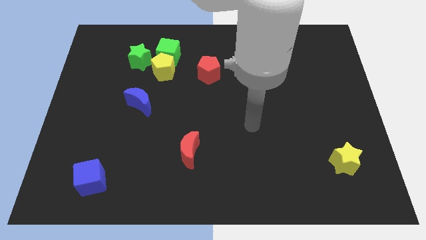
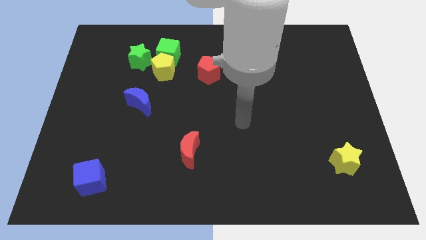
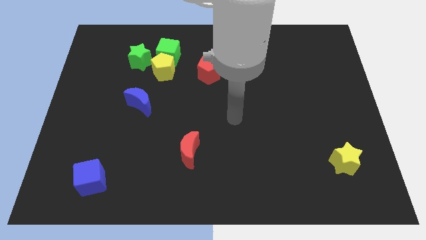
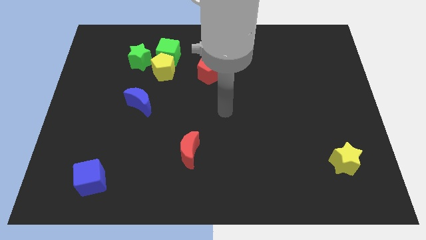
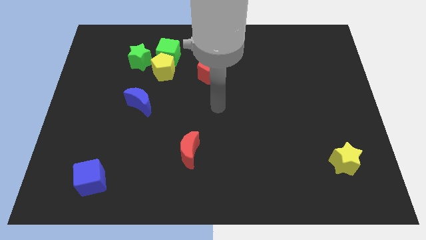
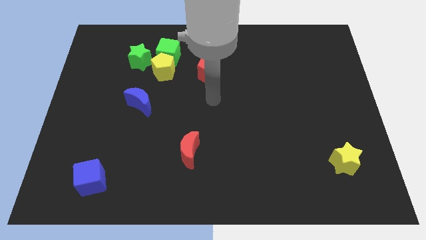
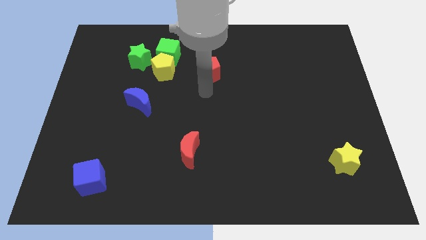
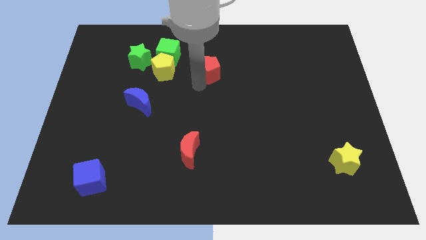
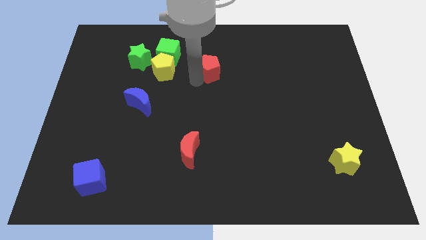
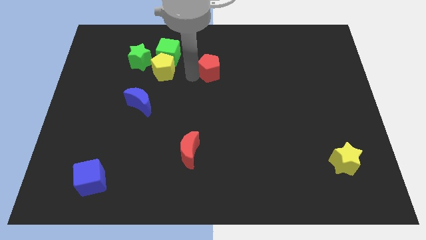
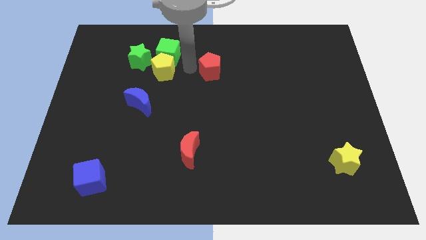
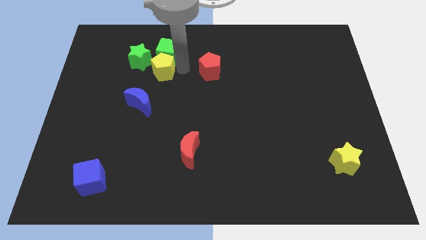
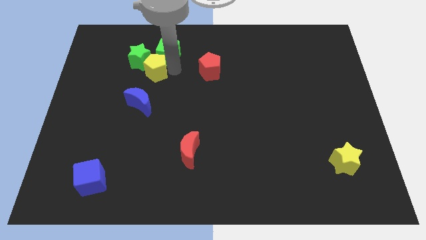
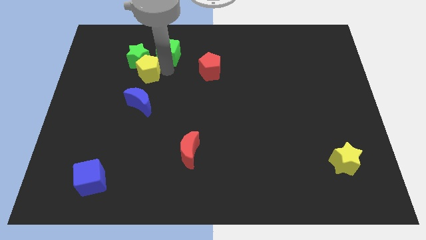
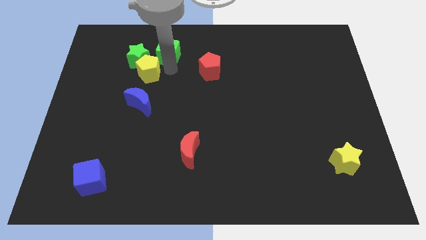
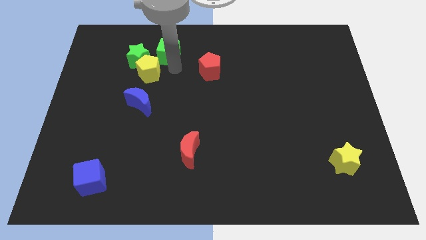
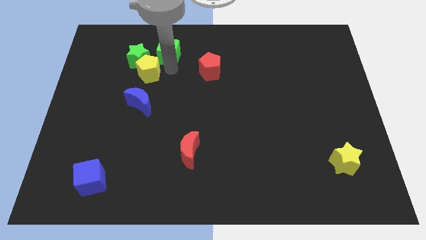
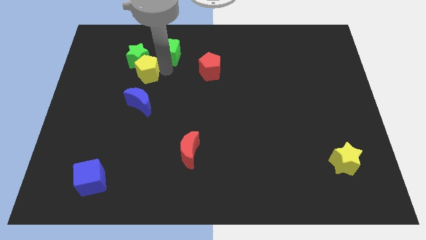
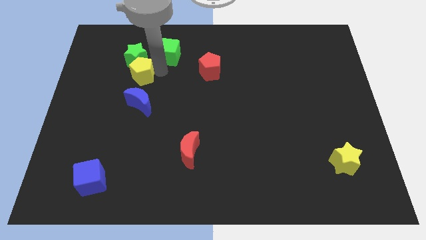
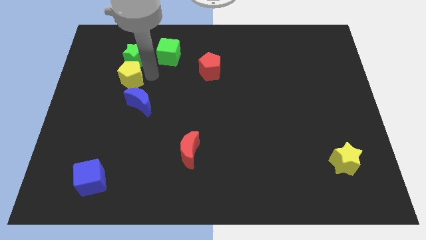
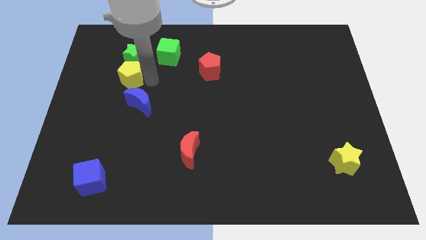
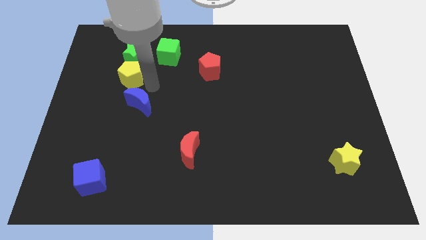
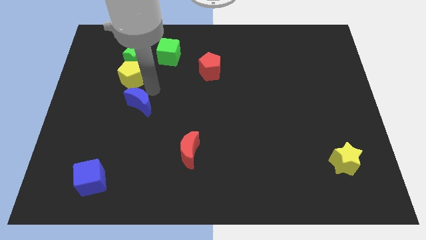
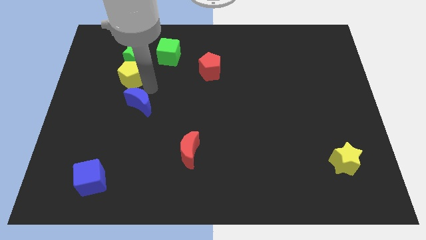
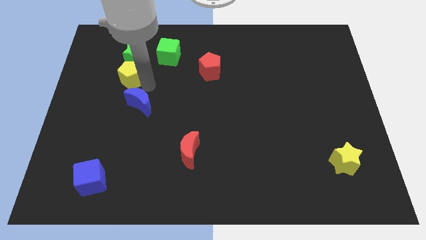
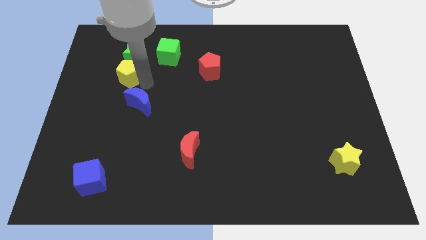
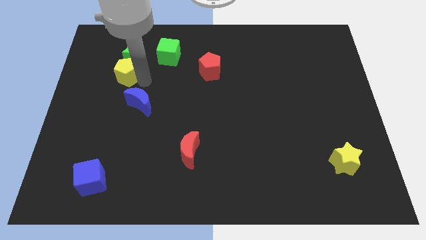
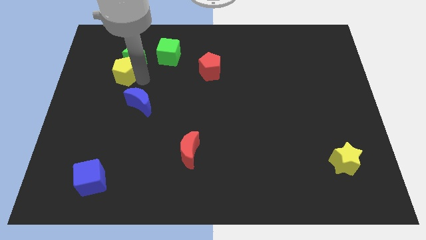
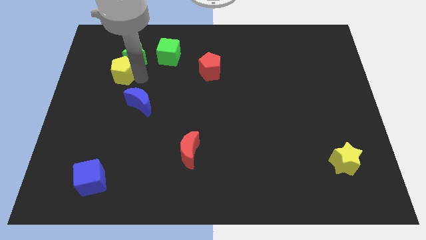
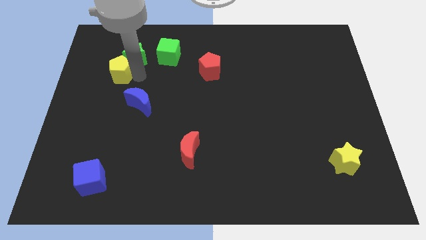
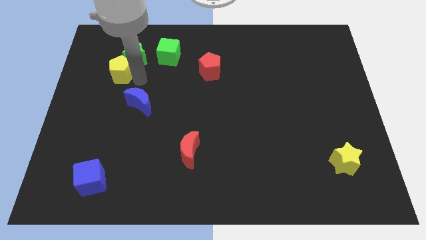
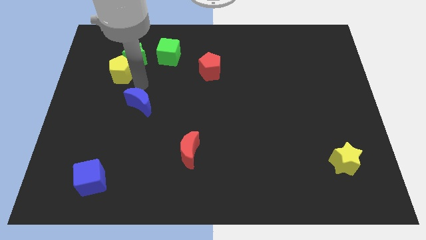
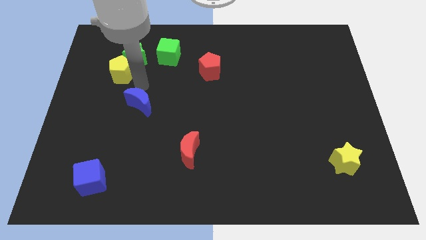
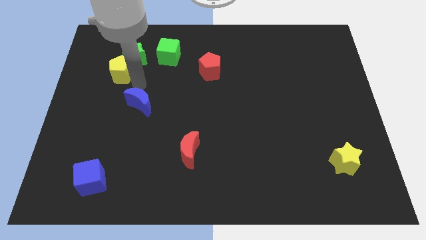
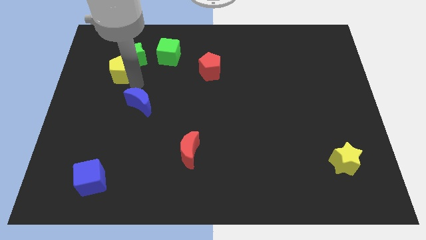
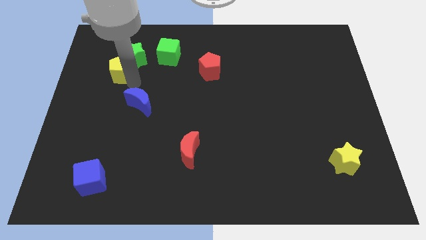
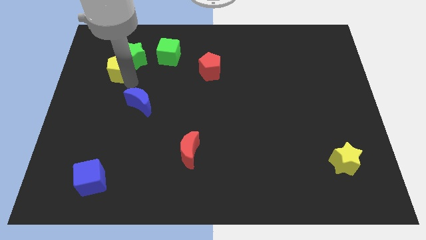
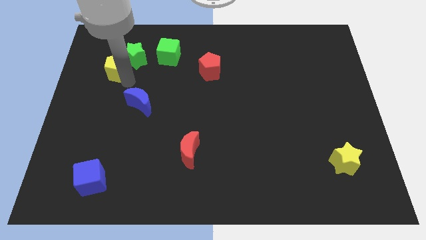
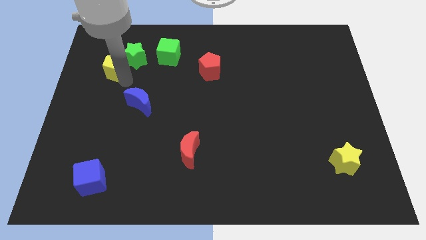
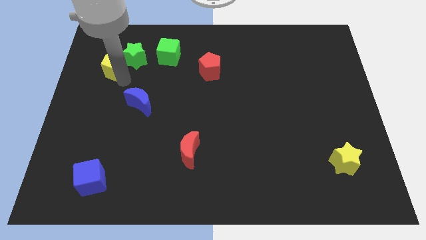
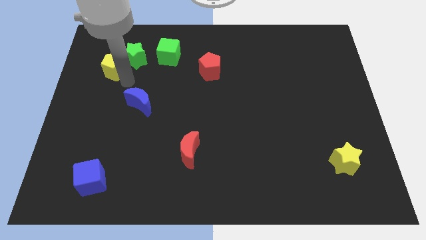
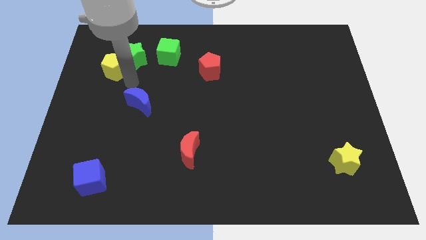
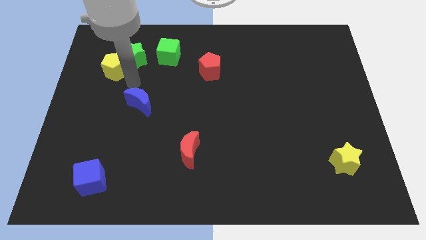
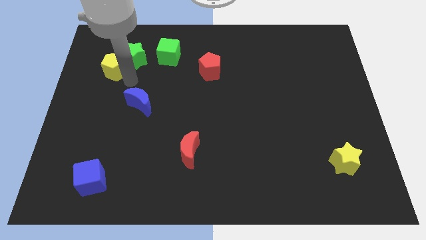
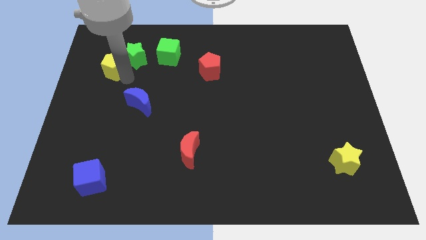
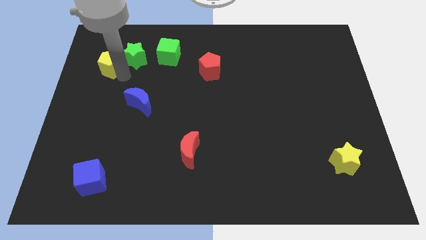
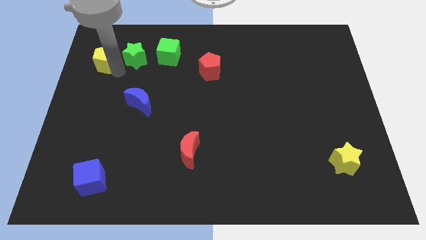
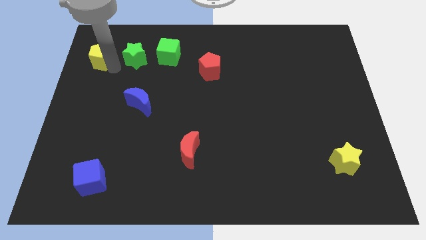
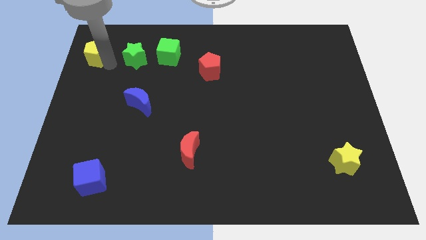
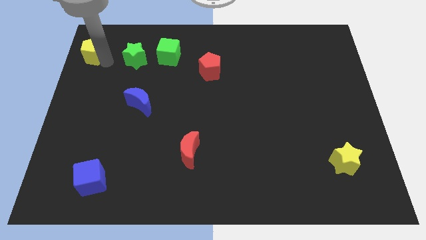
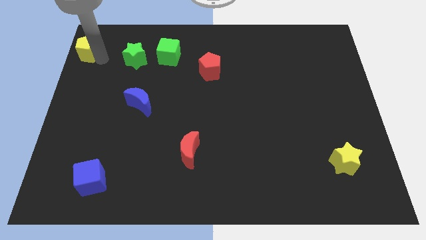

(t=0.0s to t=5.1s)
push the yellow pentagon to the top left
